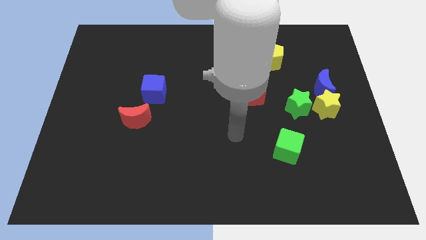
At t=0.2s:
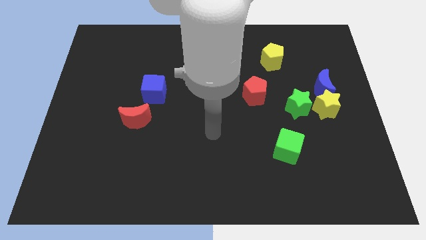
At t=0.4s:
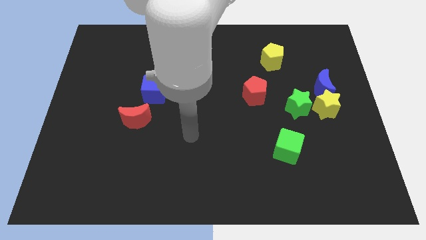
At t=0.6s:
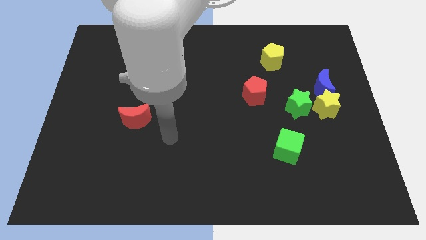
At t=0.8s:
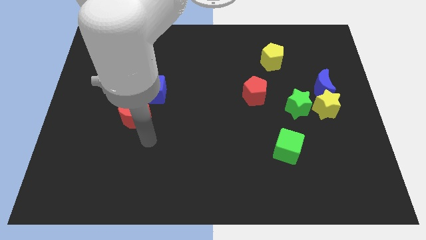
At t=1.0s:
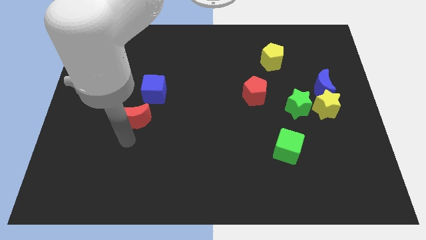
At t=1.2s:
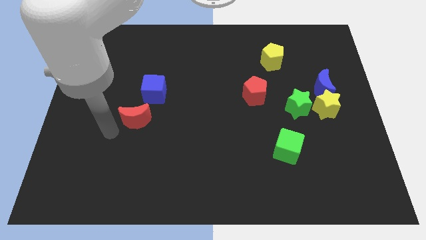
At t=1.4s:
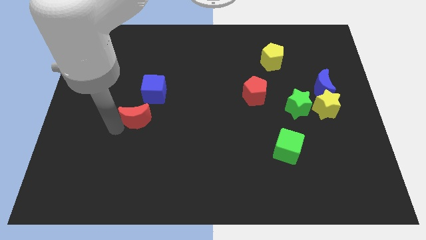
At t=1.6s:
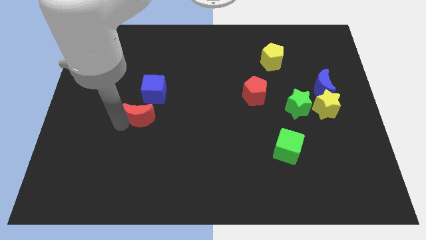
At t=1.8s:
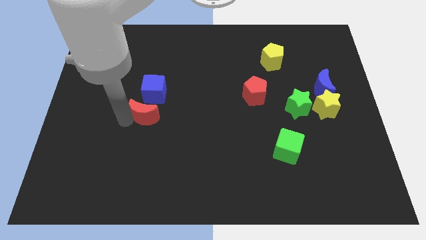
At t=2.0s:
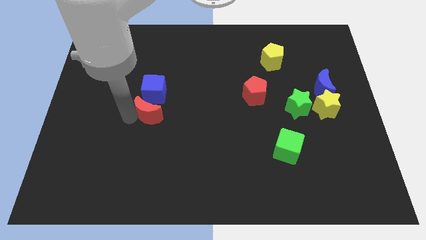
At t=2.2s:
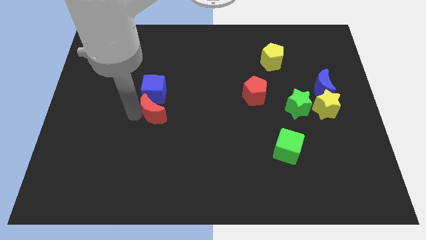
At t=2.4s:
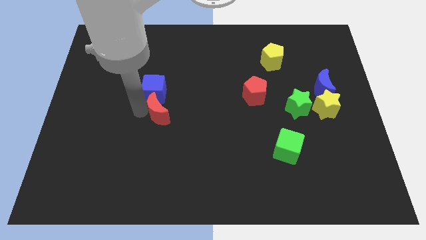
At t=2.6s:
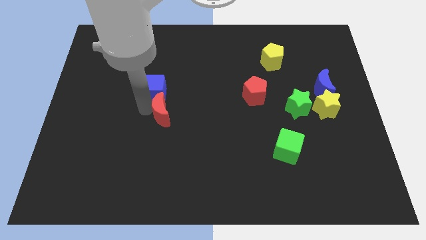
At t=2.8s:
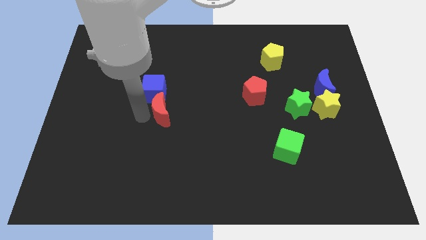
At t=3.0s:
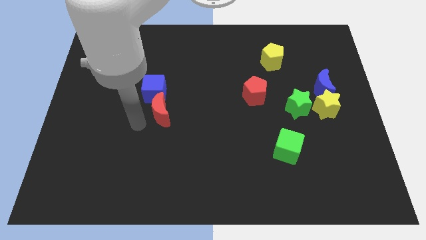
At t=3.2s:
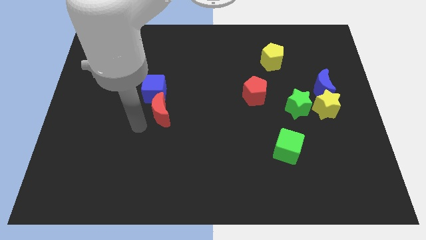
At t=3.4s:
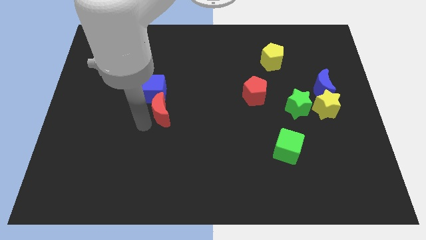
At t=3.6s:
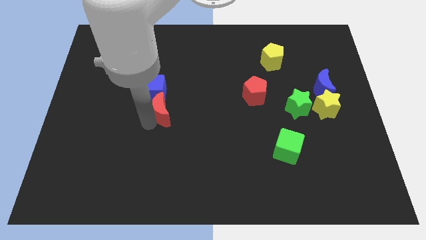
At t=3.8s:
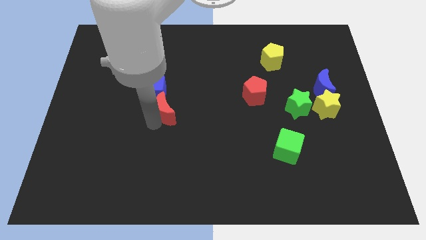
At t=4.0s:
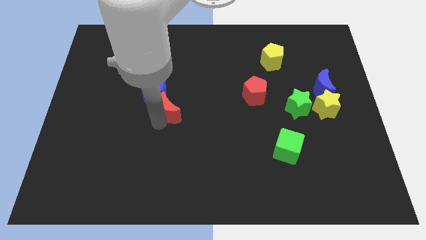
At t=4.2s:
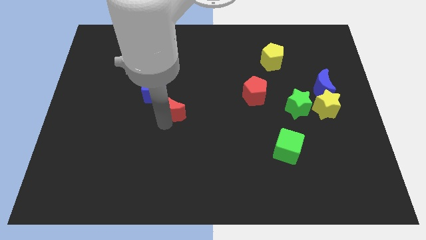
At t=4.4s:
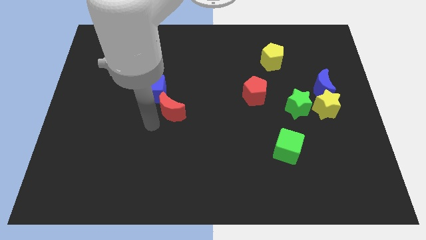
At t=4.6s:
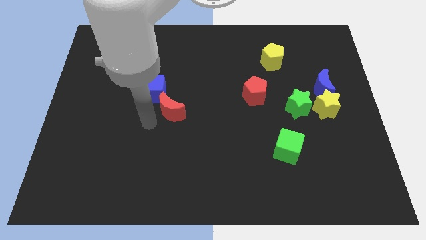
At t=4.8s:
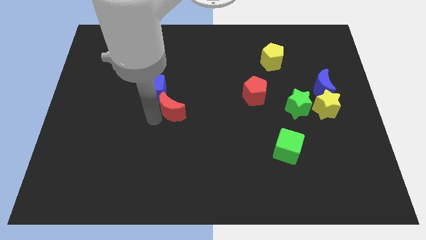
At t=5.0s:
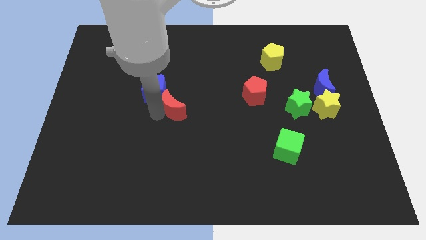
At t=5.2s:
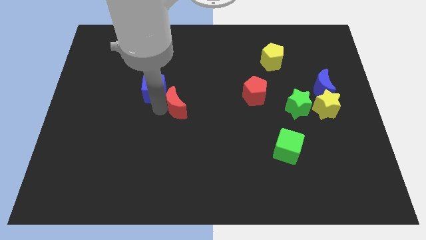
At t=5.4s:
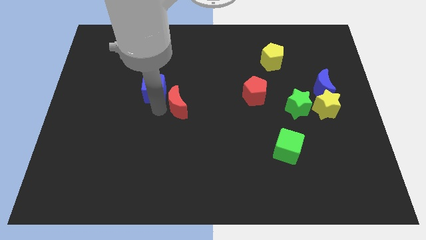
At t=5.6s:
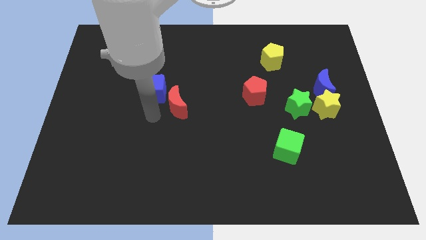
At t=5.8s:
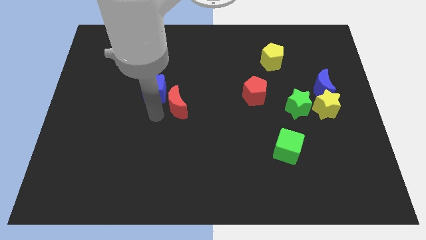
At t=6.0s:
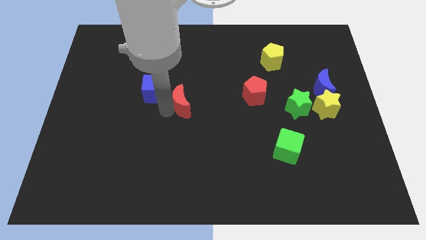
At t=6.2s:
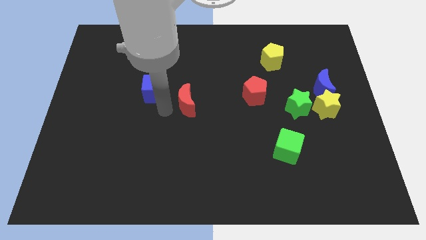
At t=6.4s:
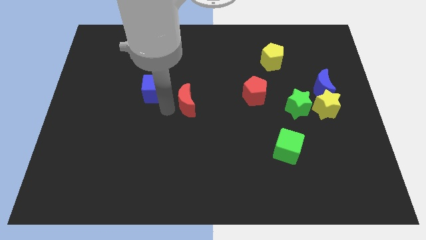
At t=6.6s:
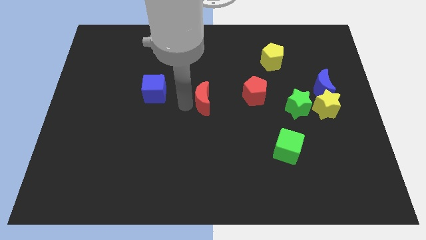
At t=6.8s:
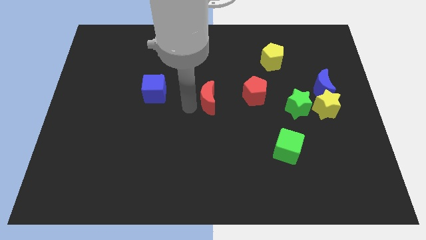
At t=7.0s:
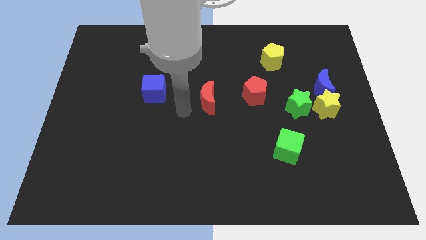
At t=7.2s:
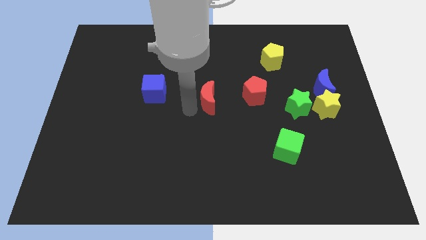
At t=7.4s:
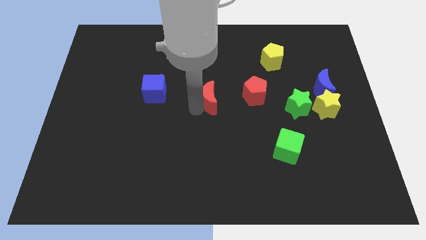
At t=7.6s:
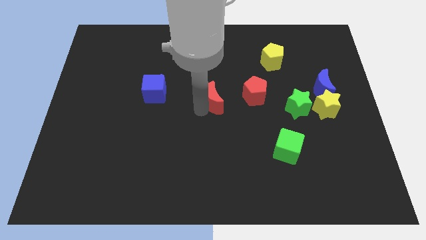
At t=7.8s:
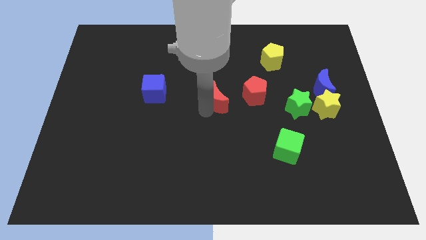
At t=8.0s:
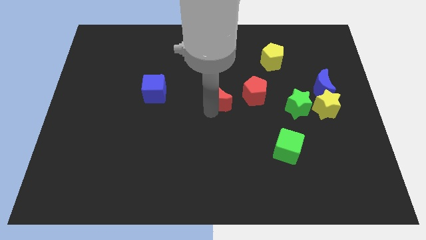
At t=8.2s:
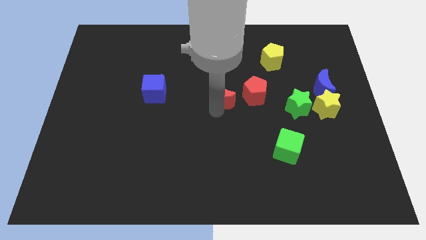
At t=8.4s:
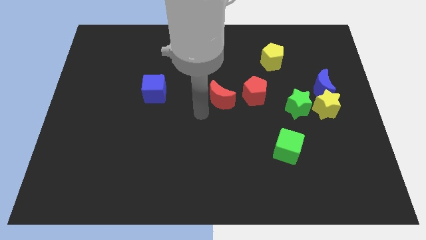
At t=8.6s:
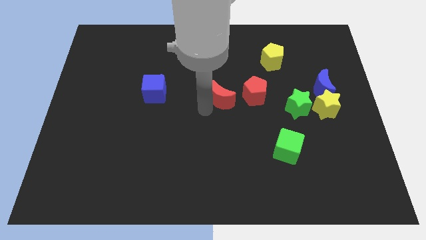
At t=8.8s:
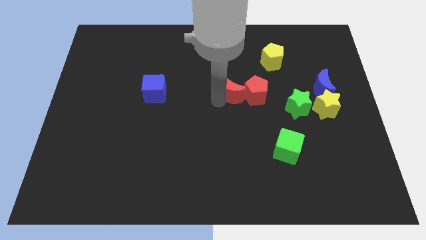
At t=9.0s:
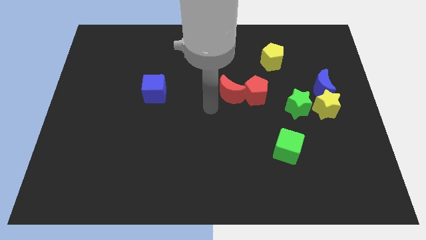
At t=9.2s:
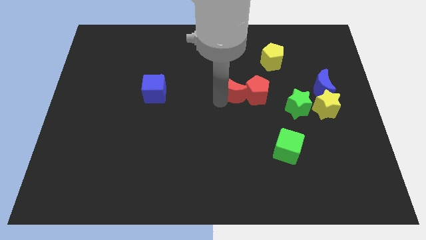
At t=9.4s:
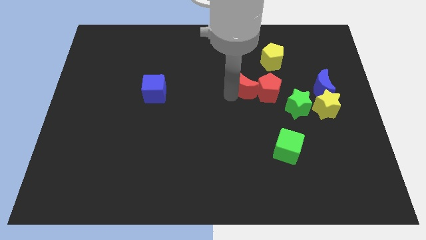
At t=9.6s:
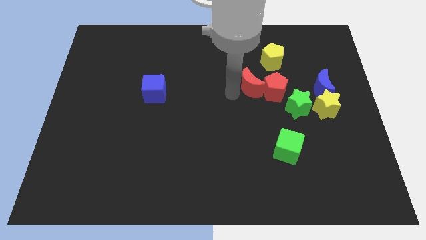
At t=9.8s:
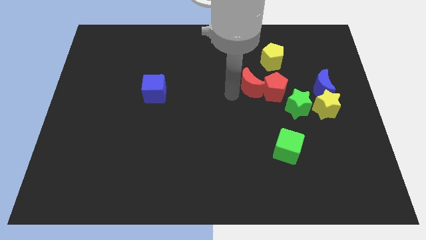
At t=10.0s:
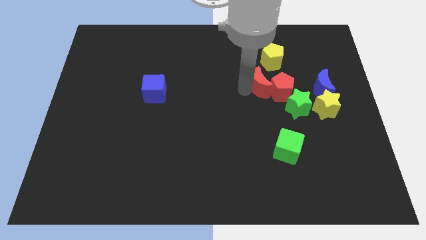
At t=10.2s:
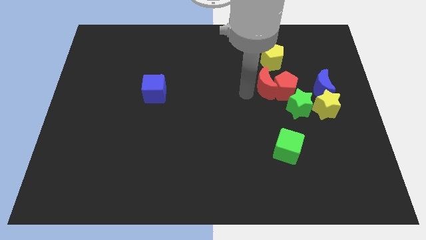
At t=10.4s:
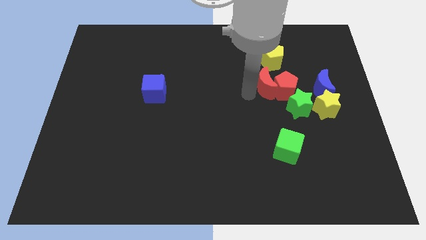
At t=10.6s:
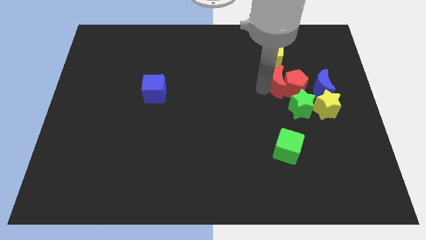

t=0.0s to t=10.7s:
move the red moon to the top side of the green star

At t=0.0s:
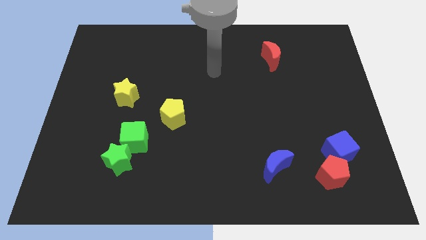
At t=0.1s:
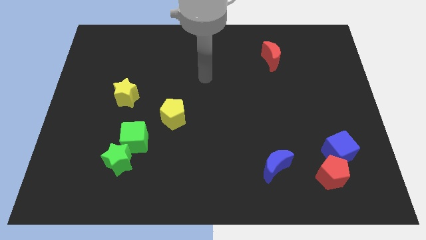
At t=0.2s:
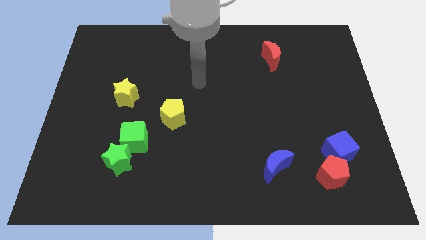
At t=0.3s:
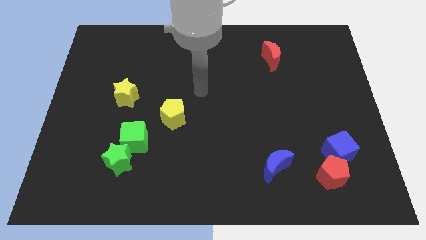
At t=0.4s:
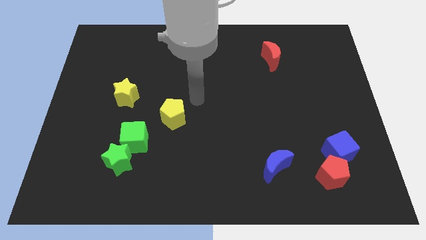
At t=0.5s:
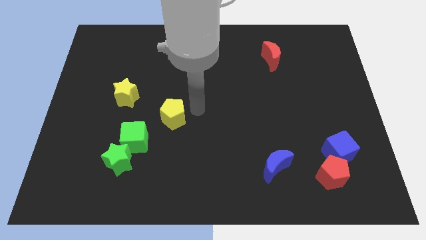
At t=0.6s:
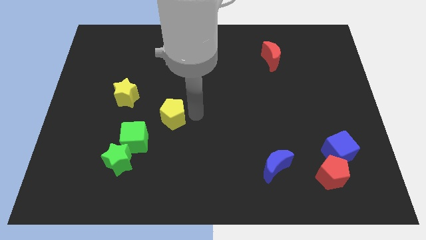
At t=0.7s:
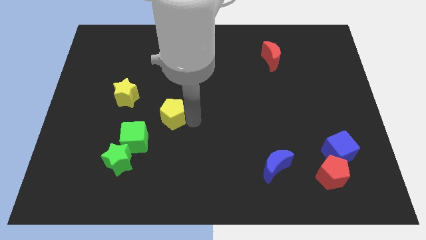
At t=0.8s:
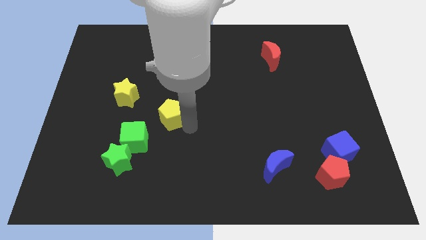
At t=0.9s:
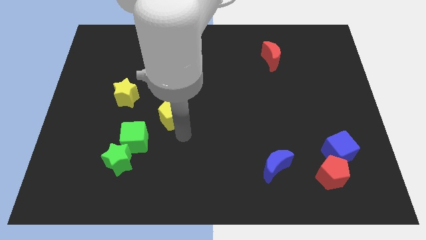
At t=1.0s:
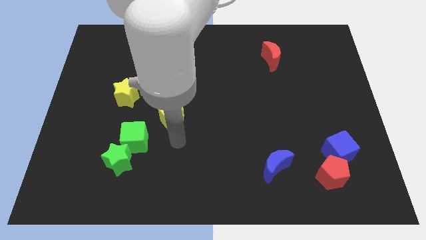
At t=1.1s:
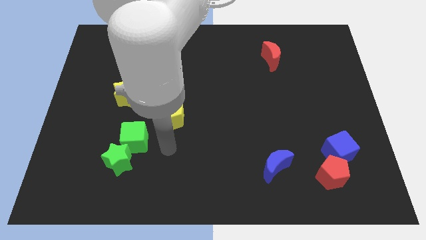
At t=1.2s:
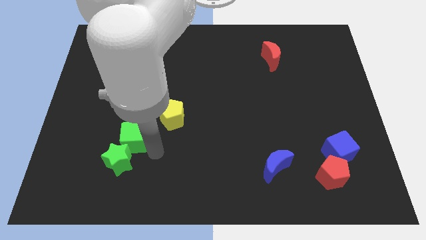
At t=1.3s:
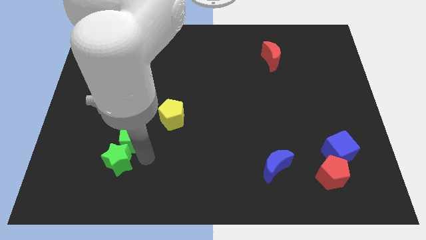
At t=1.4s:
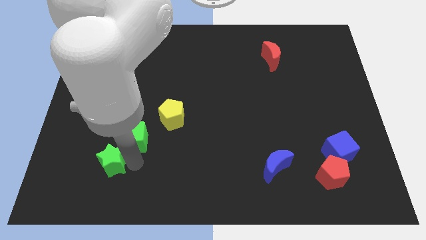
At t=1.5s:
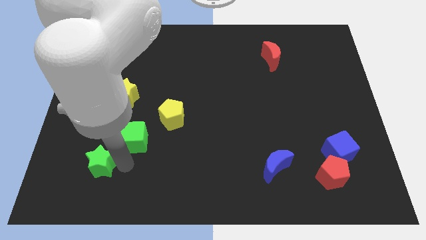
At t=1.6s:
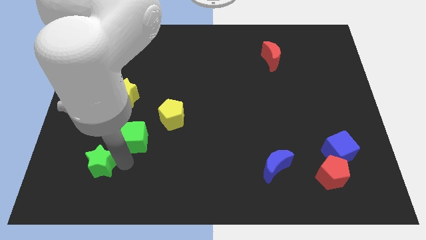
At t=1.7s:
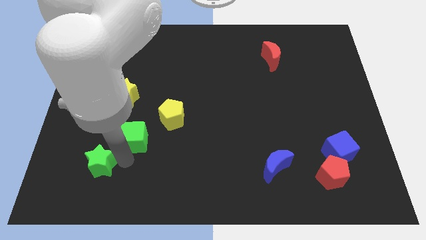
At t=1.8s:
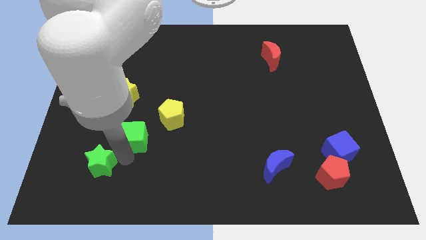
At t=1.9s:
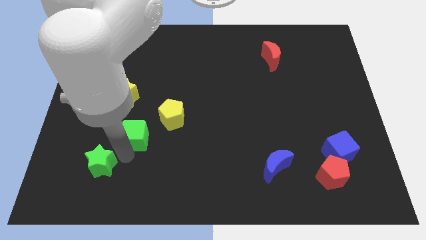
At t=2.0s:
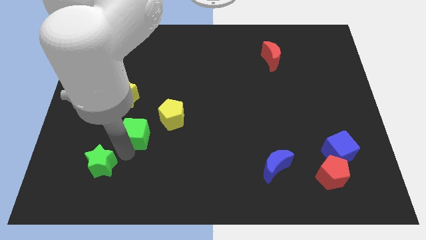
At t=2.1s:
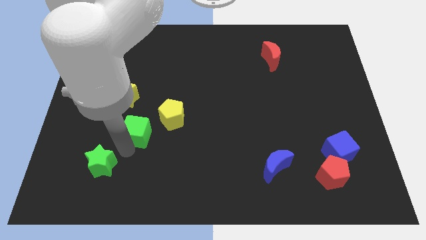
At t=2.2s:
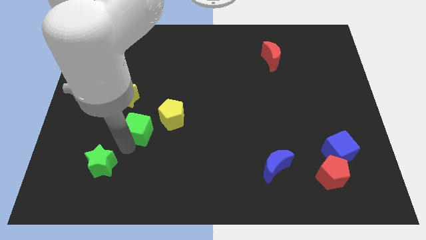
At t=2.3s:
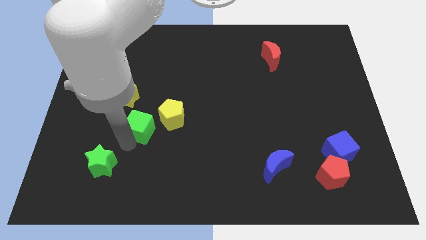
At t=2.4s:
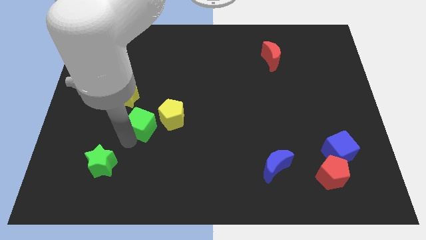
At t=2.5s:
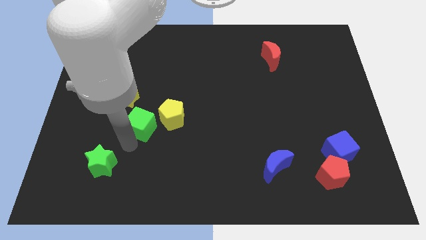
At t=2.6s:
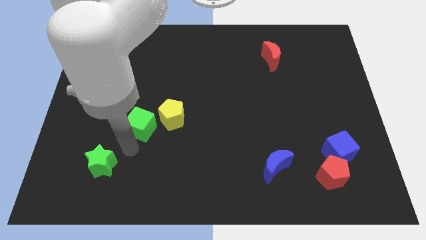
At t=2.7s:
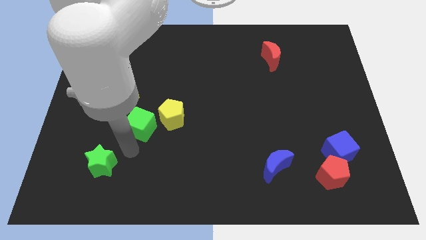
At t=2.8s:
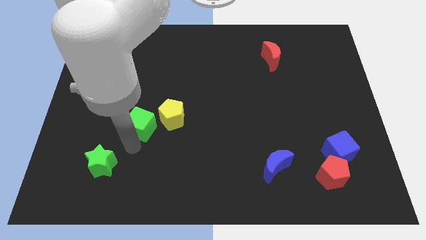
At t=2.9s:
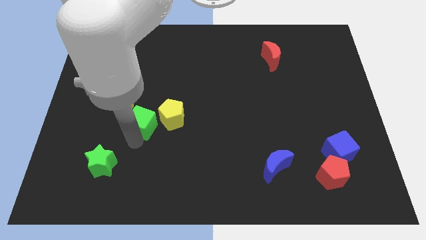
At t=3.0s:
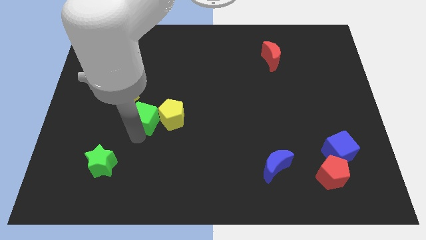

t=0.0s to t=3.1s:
push the green cube diagonally up and to the left of the yellow pentagon
